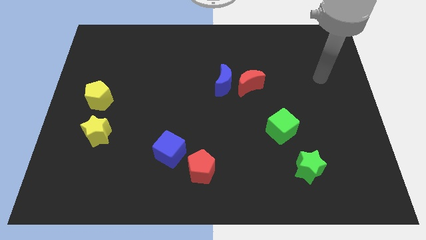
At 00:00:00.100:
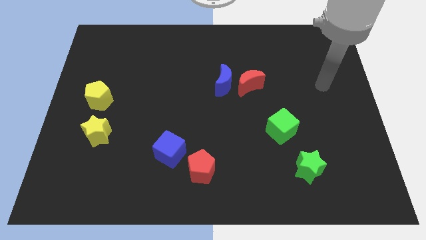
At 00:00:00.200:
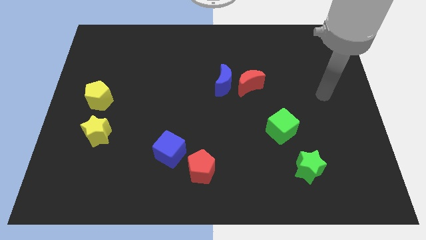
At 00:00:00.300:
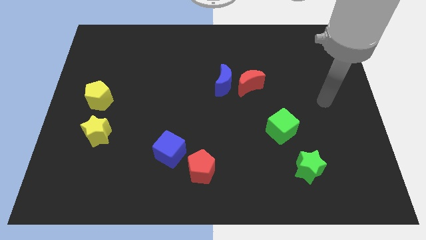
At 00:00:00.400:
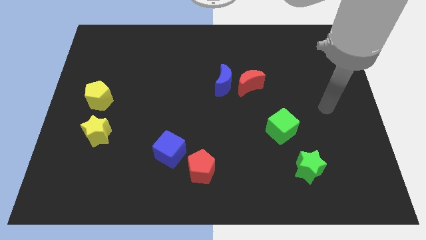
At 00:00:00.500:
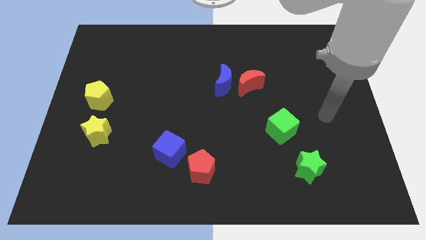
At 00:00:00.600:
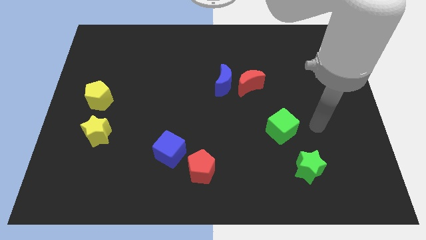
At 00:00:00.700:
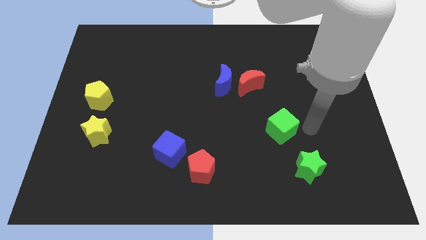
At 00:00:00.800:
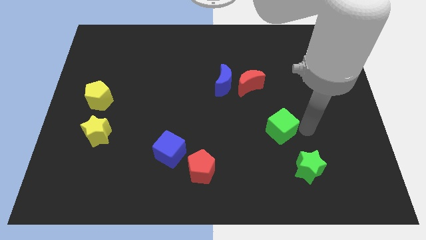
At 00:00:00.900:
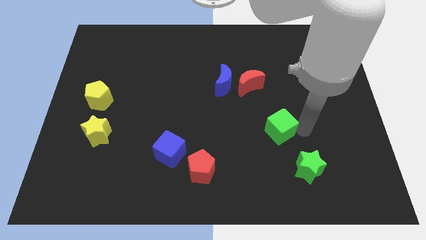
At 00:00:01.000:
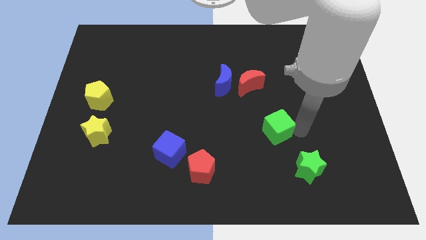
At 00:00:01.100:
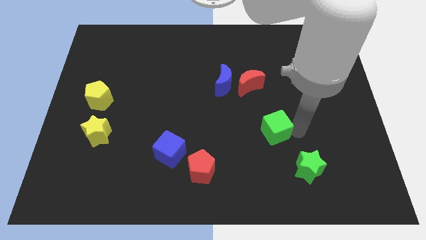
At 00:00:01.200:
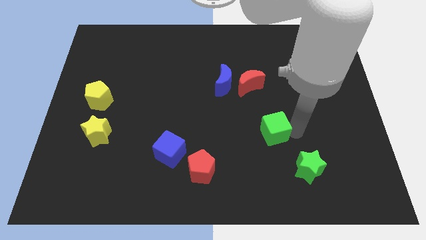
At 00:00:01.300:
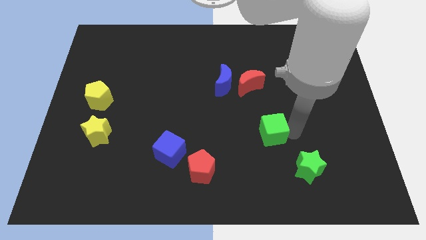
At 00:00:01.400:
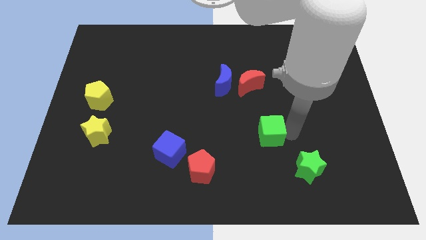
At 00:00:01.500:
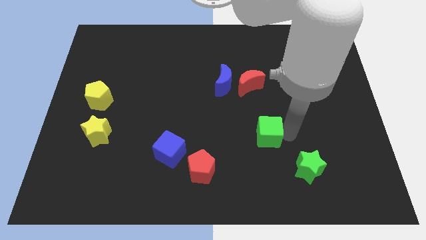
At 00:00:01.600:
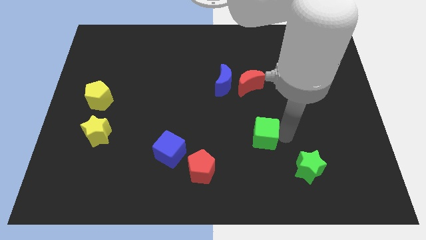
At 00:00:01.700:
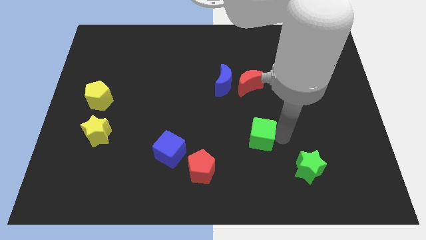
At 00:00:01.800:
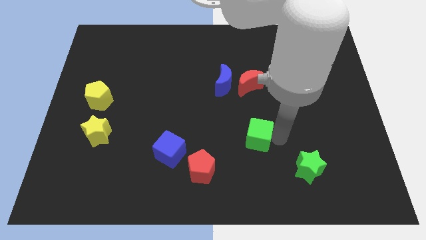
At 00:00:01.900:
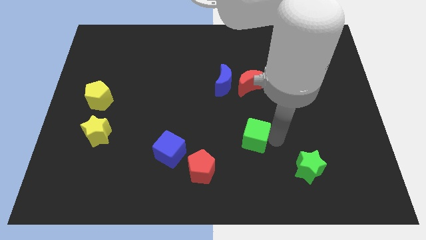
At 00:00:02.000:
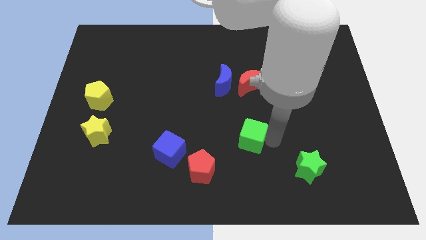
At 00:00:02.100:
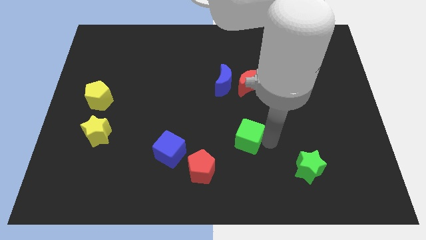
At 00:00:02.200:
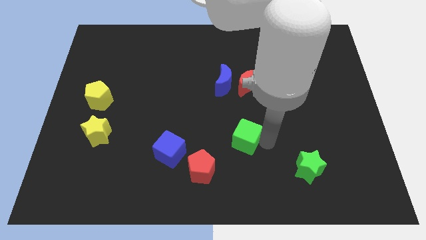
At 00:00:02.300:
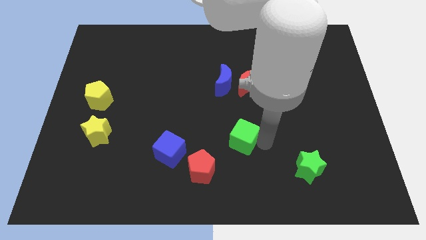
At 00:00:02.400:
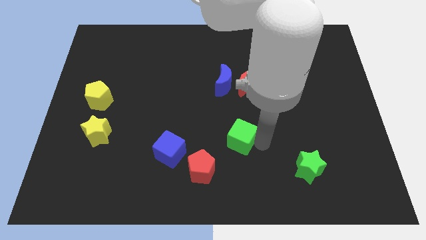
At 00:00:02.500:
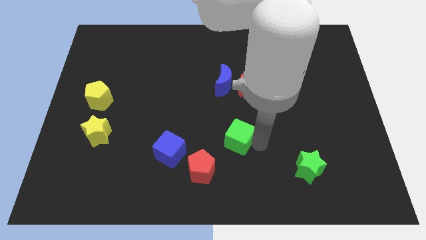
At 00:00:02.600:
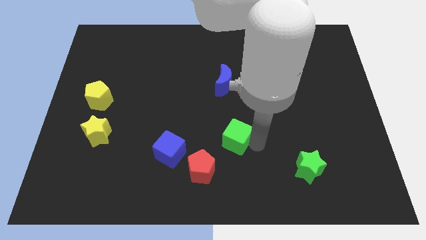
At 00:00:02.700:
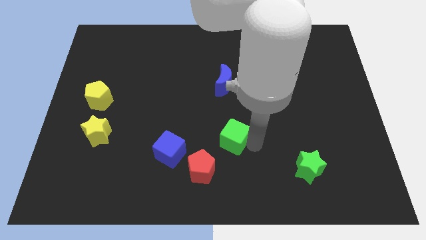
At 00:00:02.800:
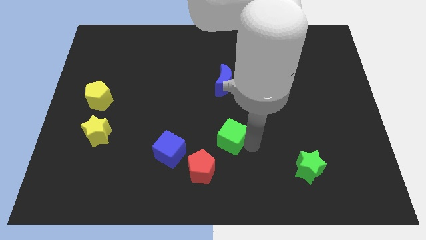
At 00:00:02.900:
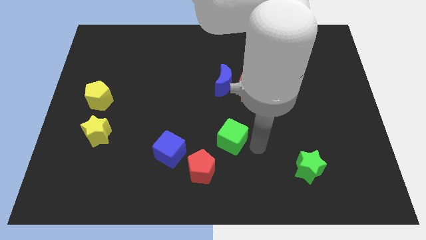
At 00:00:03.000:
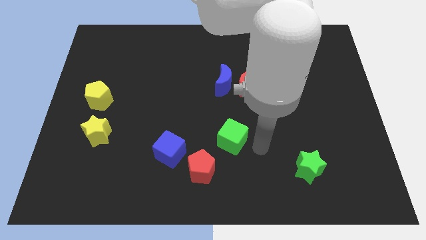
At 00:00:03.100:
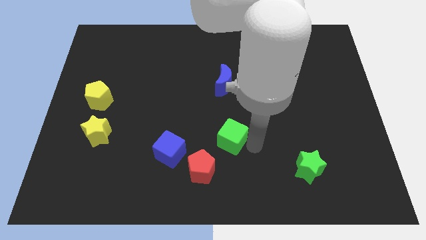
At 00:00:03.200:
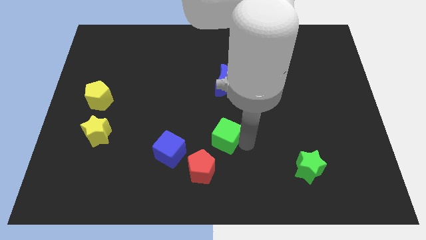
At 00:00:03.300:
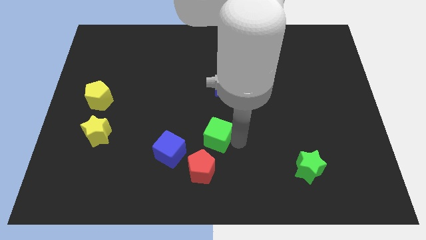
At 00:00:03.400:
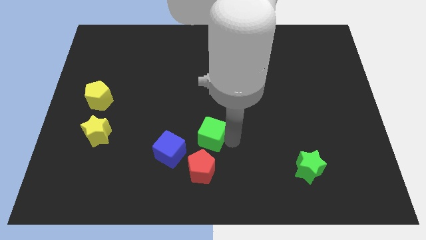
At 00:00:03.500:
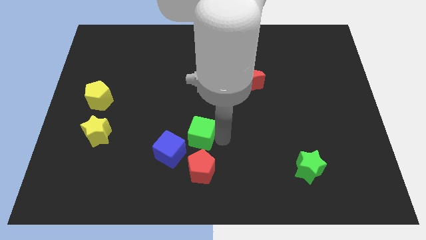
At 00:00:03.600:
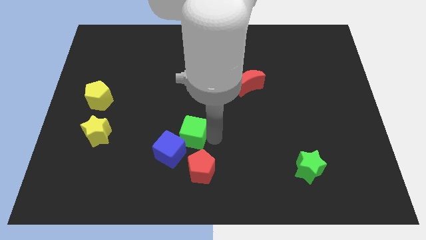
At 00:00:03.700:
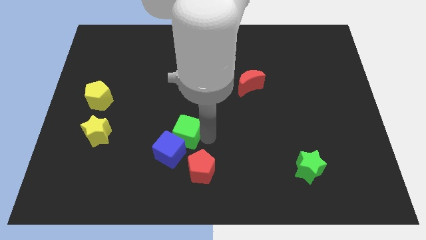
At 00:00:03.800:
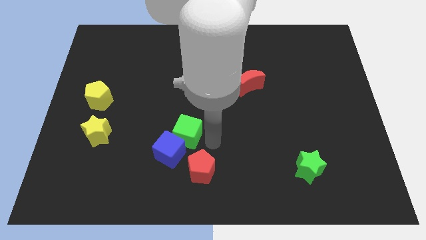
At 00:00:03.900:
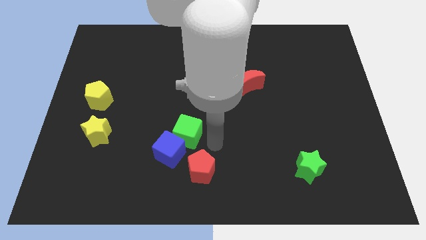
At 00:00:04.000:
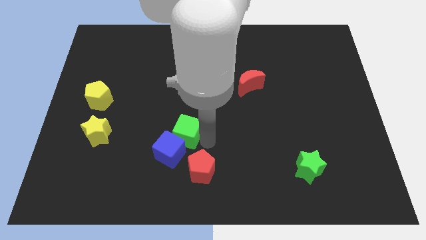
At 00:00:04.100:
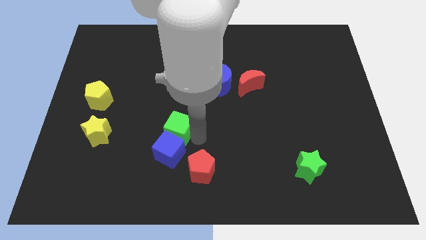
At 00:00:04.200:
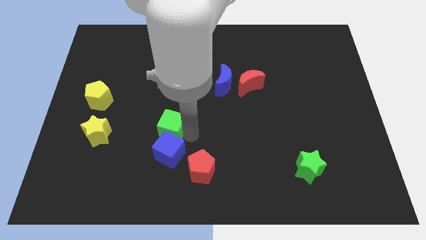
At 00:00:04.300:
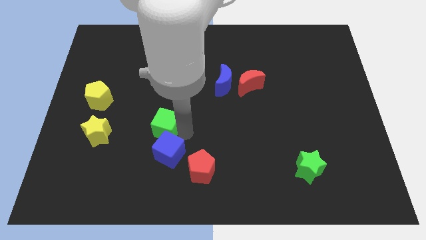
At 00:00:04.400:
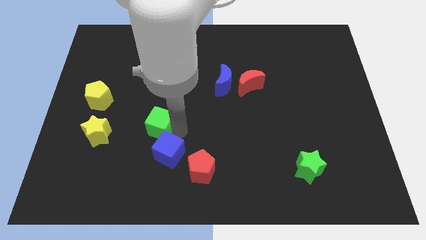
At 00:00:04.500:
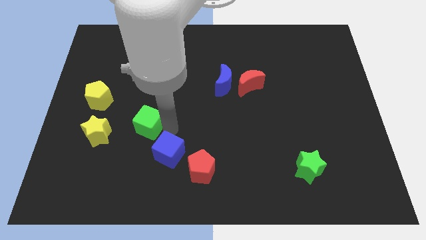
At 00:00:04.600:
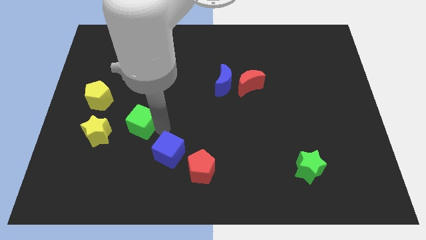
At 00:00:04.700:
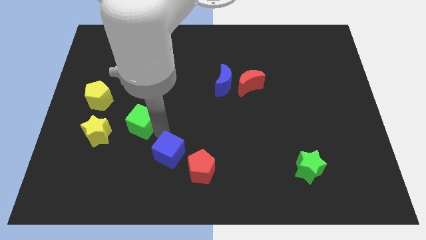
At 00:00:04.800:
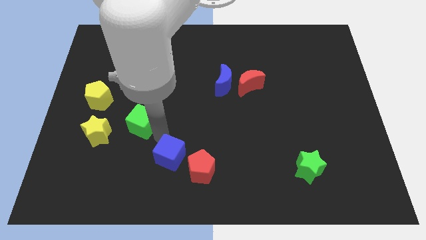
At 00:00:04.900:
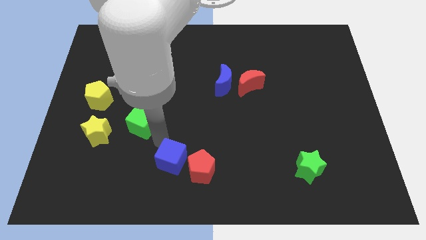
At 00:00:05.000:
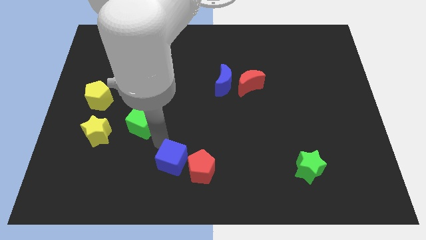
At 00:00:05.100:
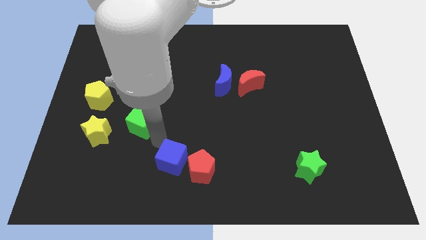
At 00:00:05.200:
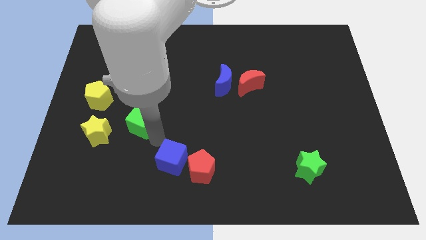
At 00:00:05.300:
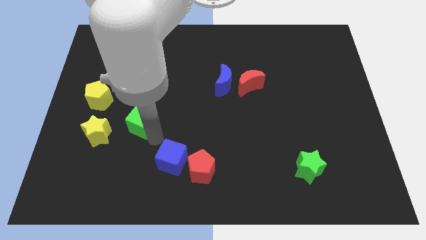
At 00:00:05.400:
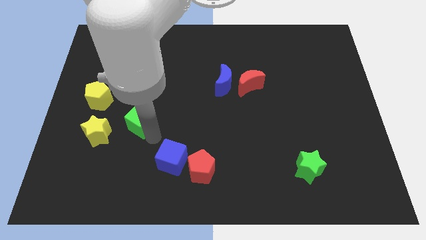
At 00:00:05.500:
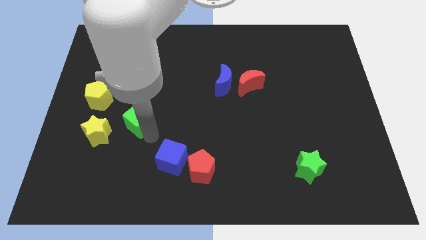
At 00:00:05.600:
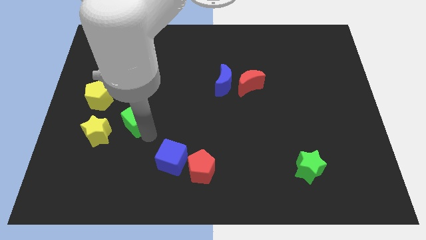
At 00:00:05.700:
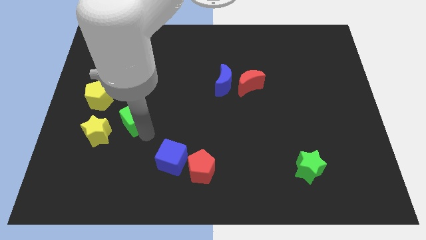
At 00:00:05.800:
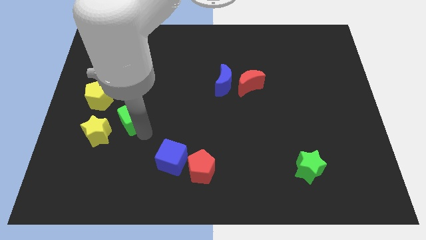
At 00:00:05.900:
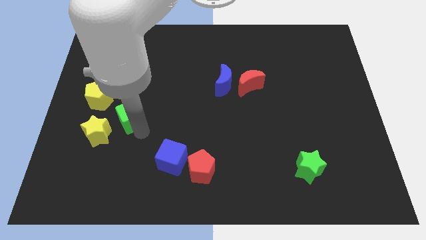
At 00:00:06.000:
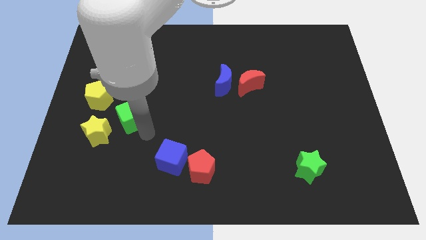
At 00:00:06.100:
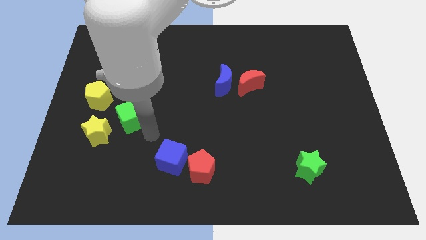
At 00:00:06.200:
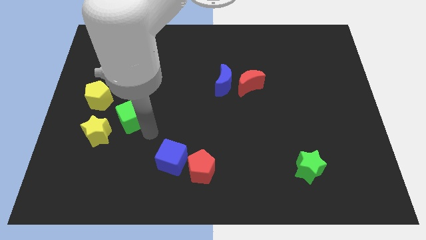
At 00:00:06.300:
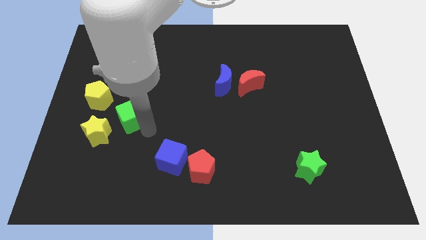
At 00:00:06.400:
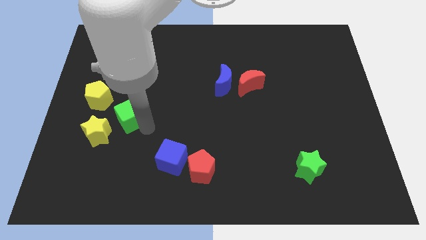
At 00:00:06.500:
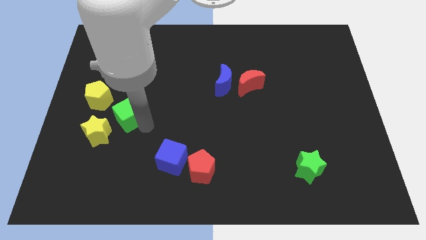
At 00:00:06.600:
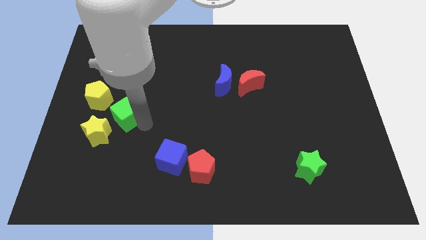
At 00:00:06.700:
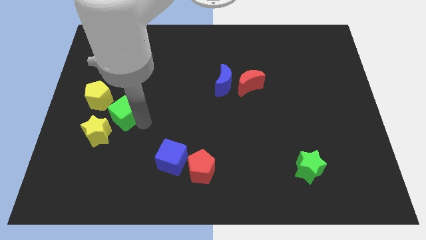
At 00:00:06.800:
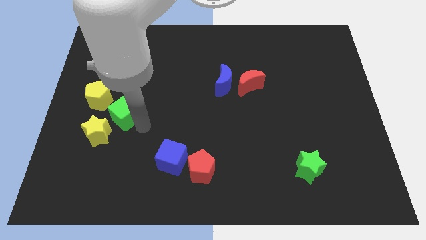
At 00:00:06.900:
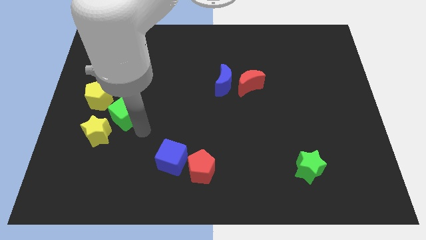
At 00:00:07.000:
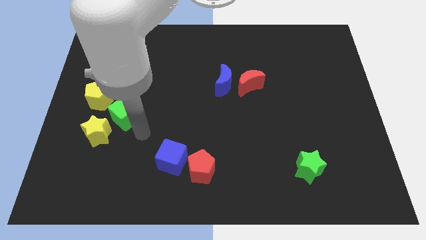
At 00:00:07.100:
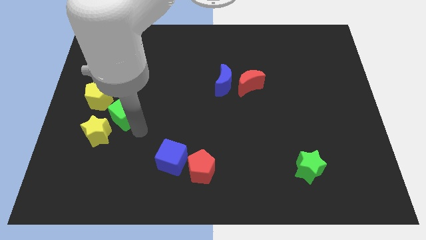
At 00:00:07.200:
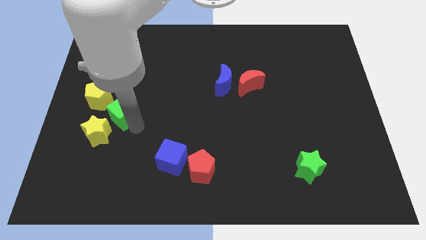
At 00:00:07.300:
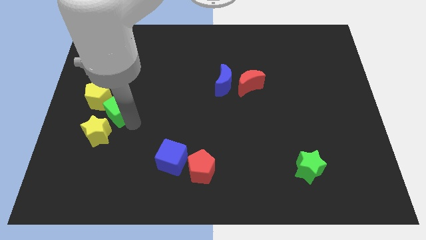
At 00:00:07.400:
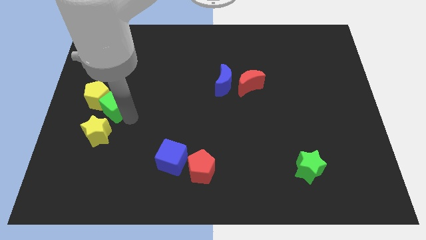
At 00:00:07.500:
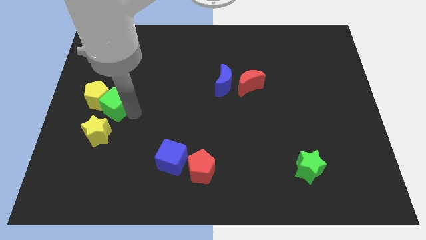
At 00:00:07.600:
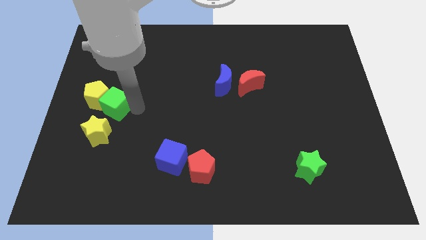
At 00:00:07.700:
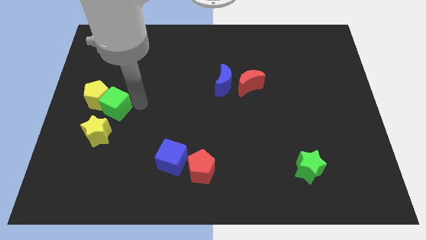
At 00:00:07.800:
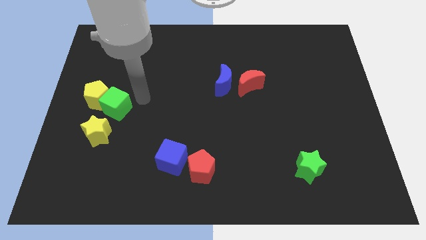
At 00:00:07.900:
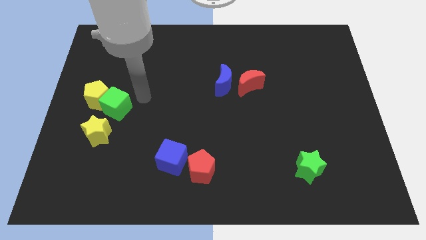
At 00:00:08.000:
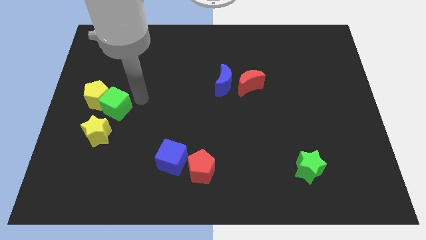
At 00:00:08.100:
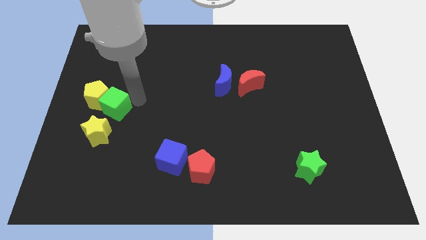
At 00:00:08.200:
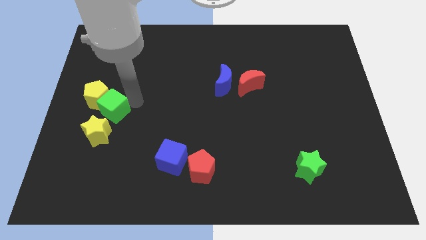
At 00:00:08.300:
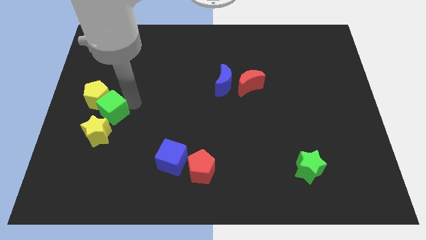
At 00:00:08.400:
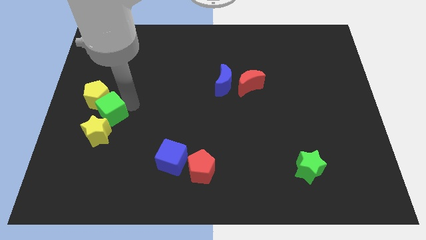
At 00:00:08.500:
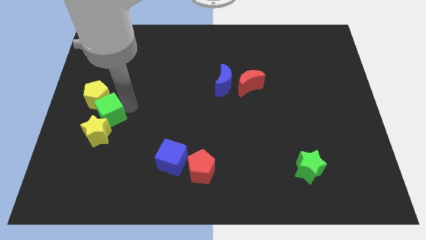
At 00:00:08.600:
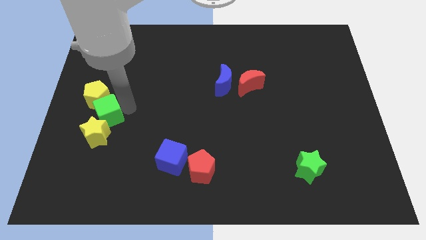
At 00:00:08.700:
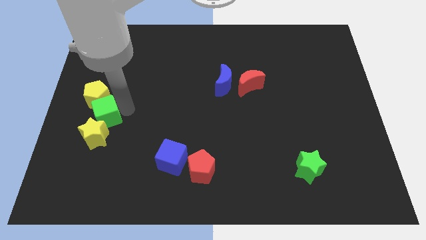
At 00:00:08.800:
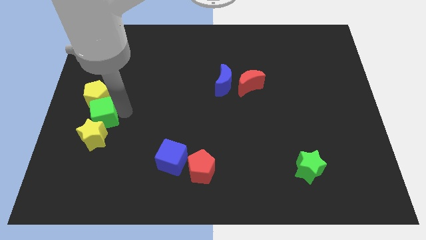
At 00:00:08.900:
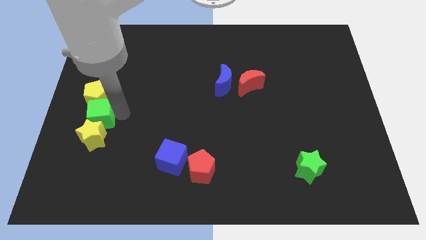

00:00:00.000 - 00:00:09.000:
push the green cube to the left side of the board
